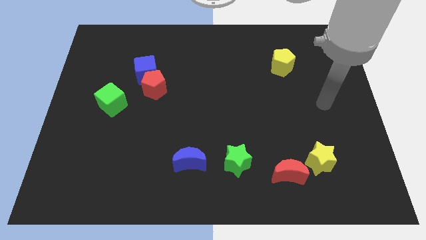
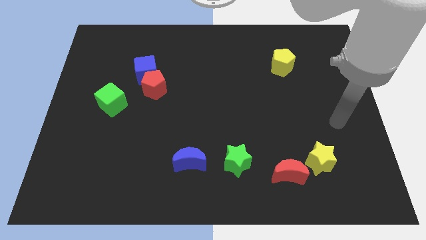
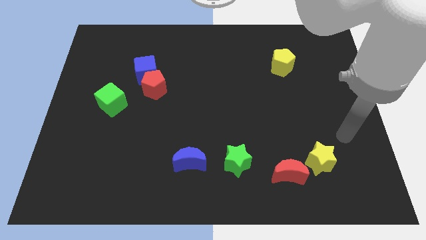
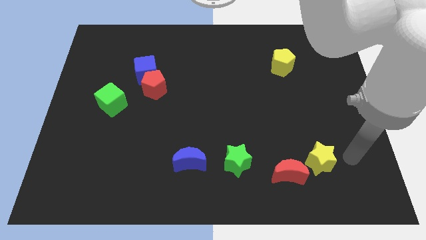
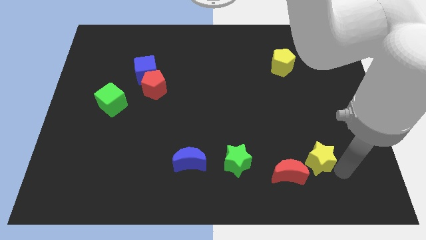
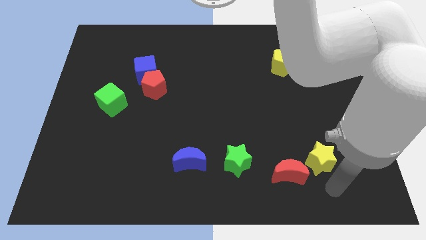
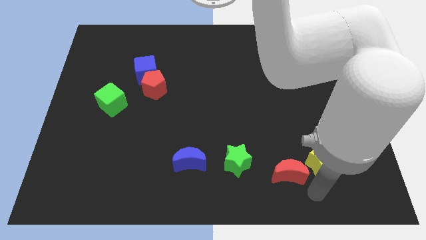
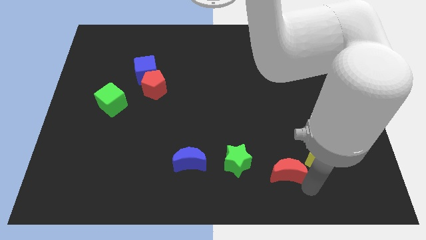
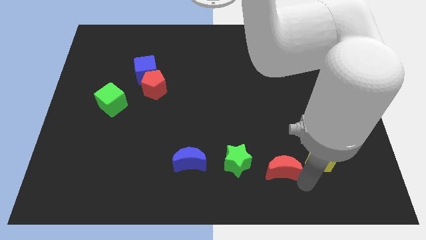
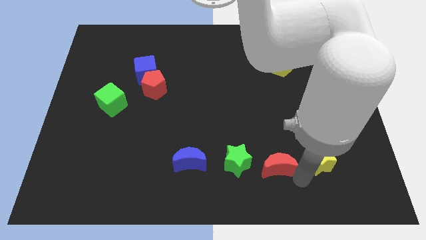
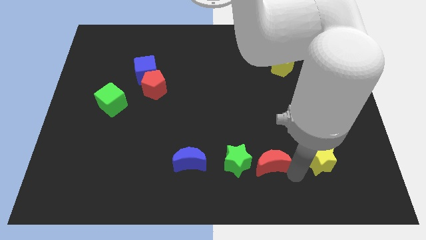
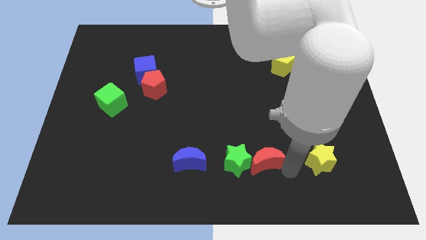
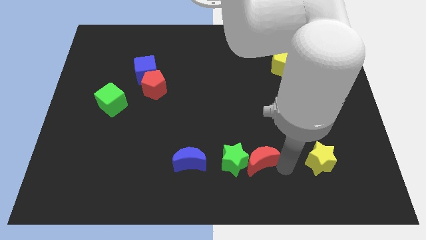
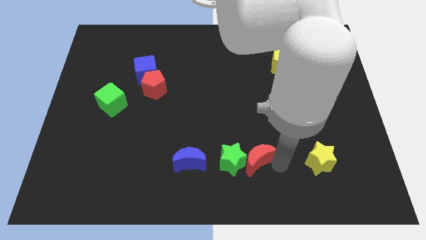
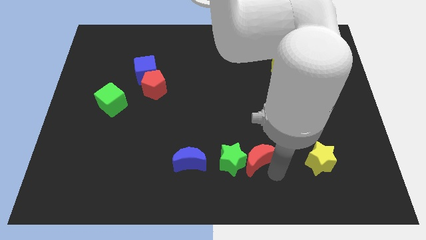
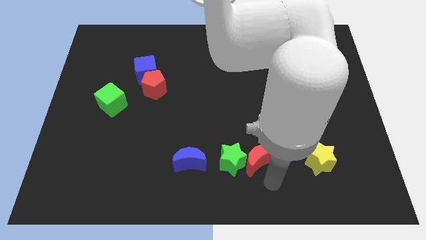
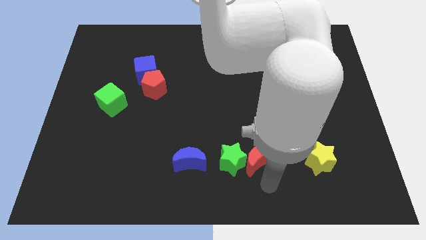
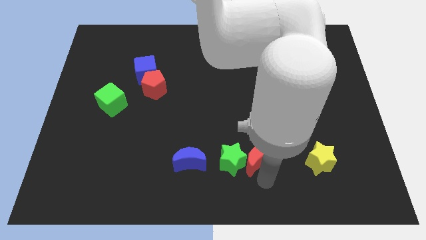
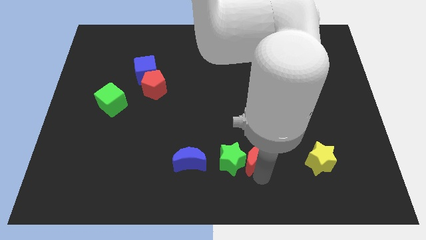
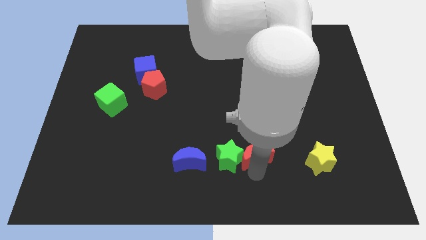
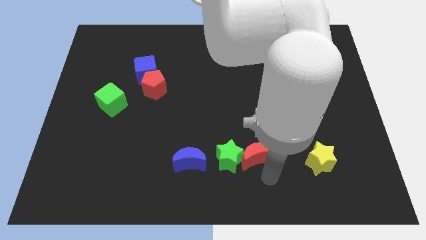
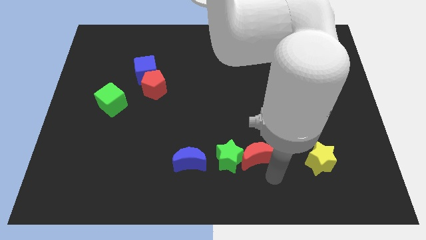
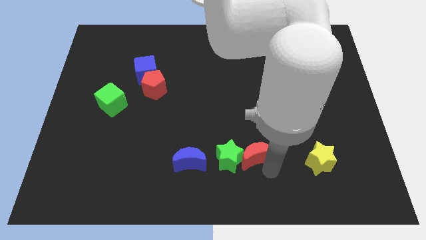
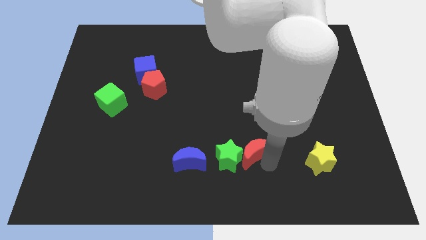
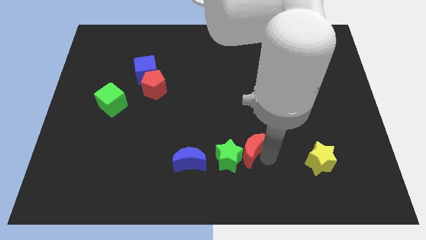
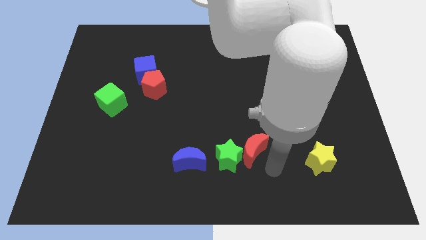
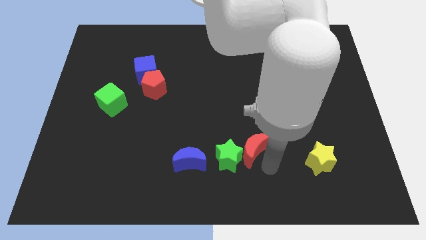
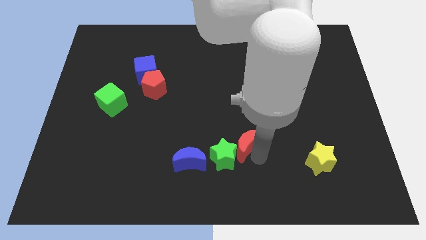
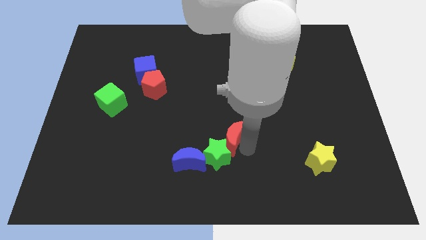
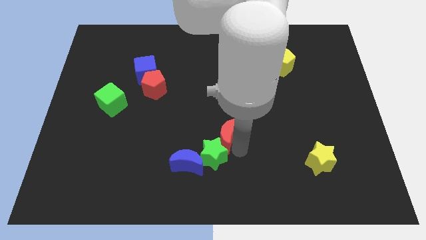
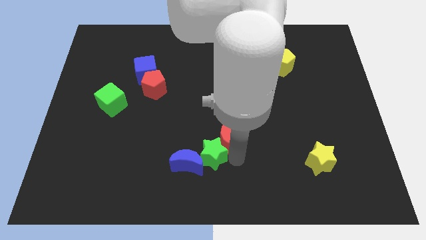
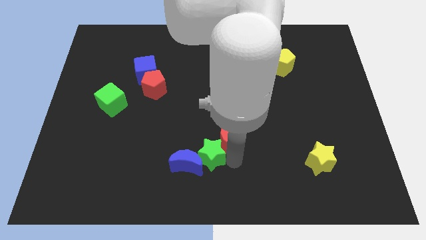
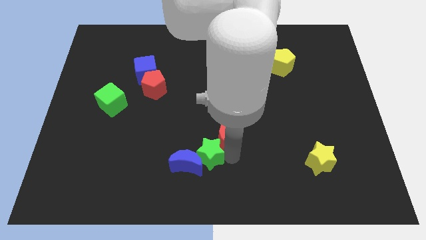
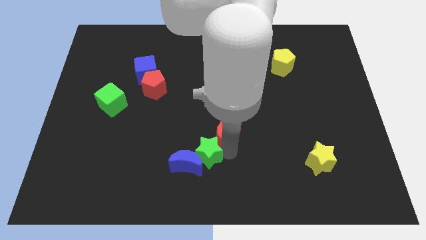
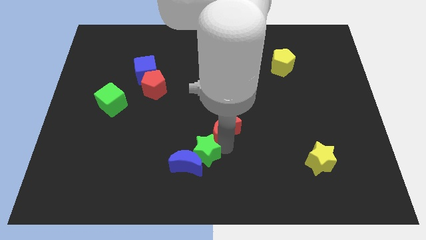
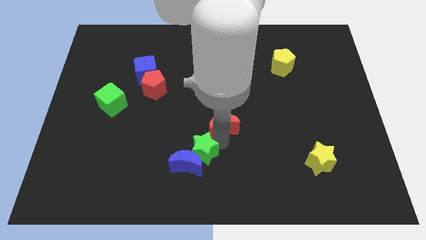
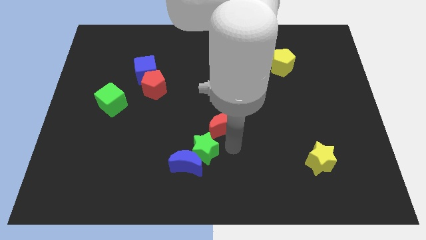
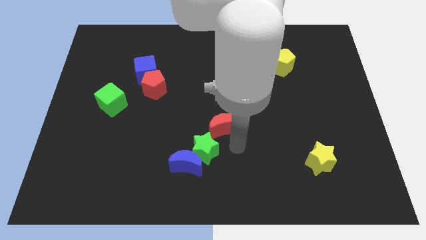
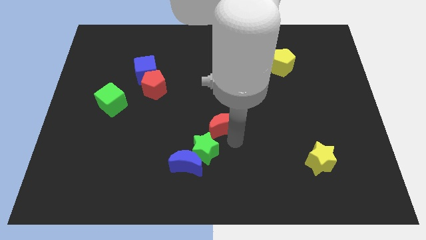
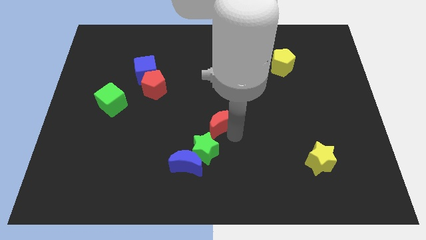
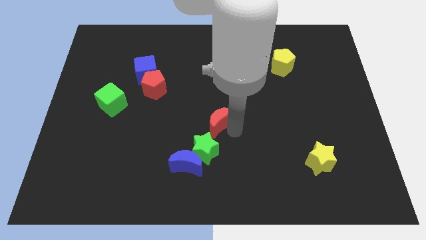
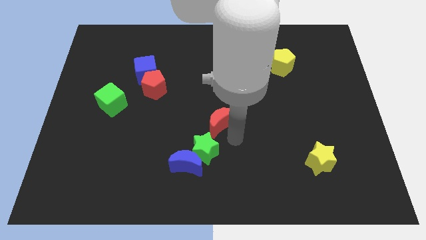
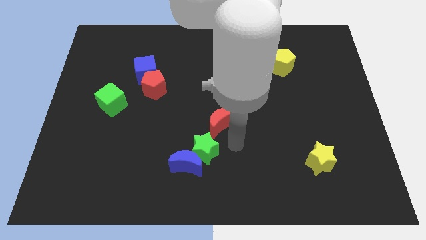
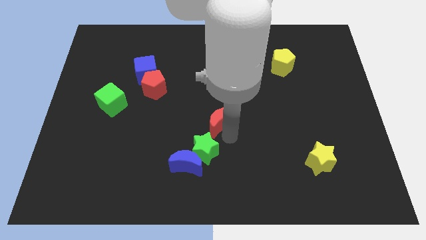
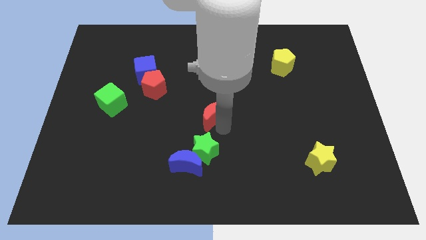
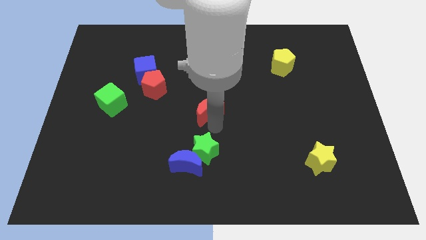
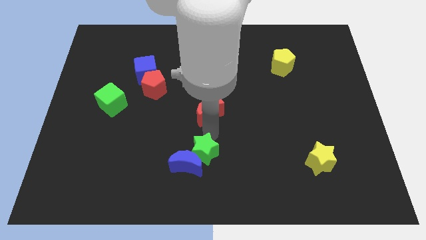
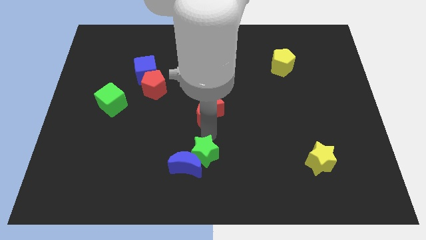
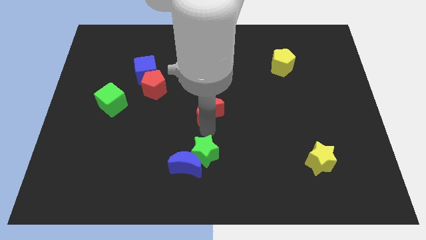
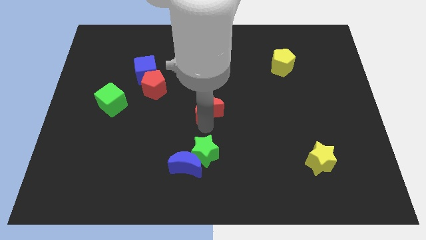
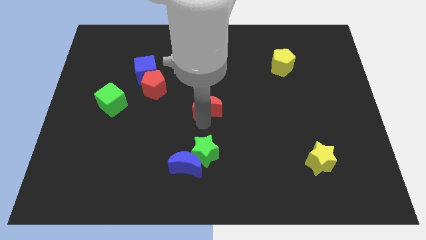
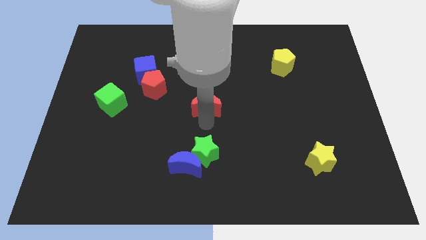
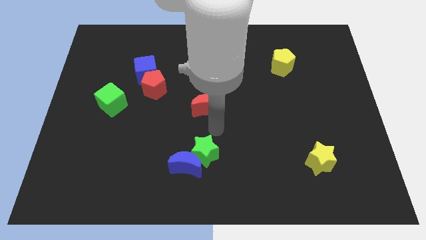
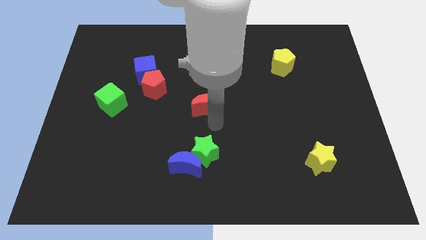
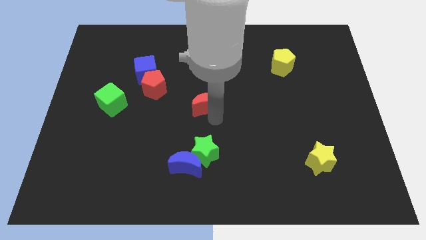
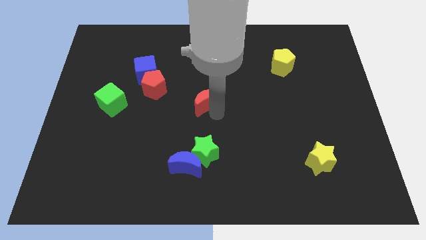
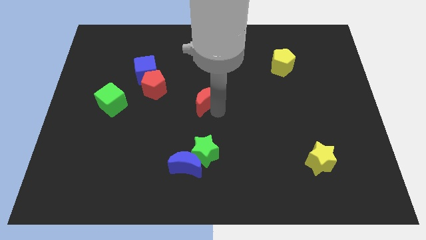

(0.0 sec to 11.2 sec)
move the red moon just right of the red pentagon

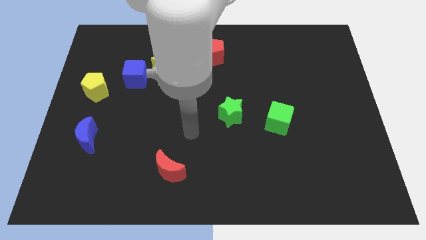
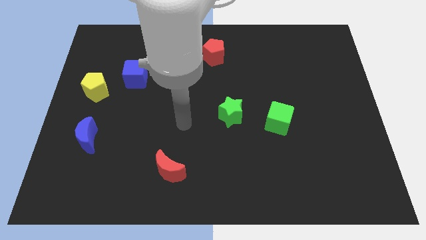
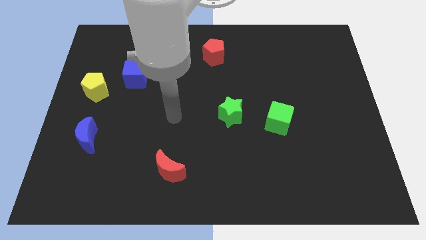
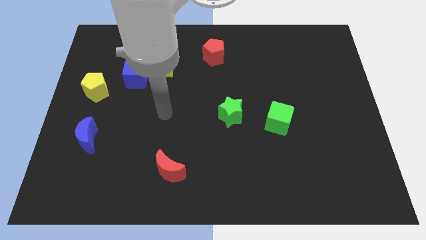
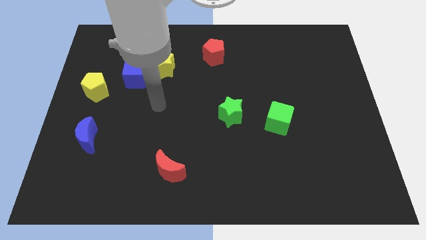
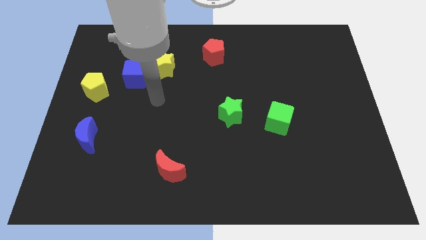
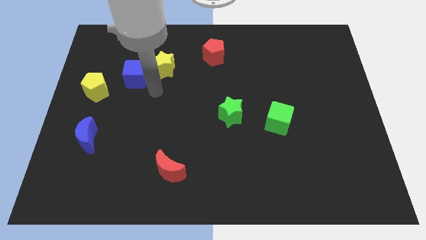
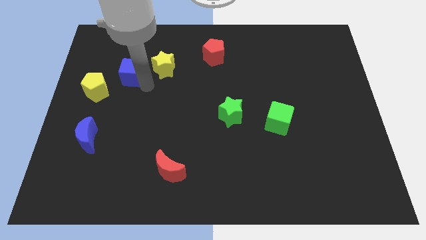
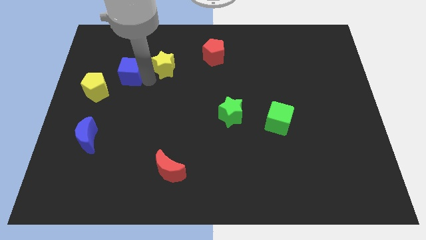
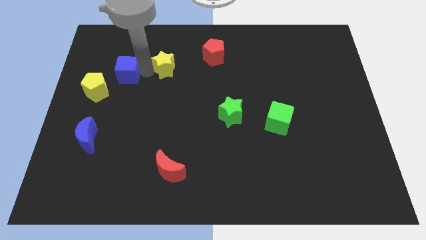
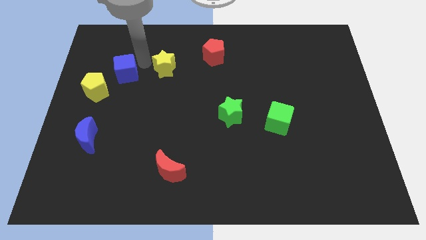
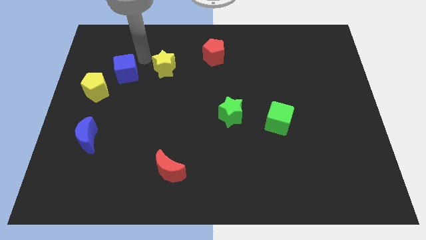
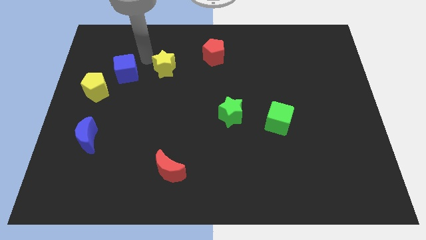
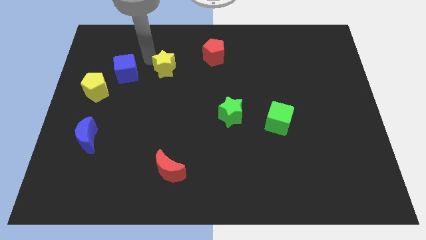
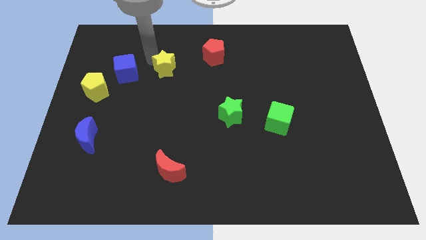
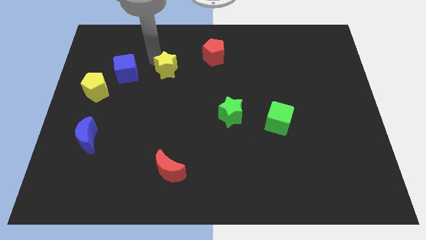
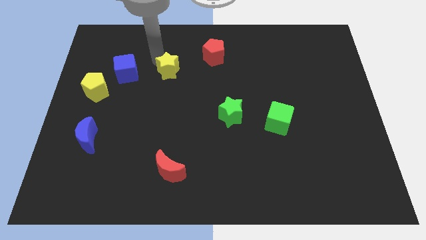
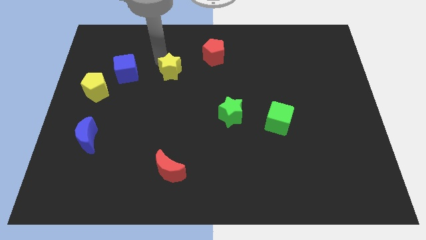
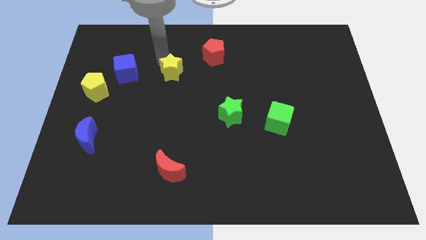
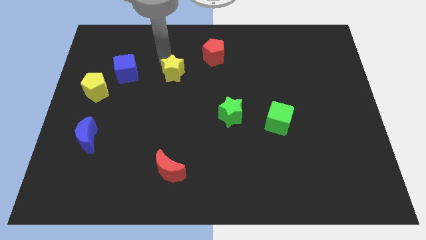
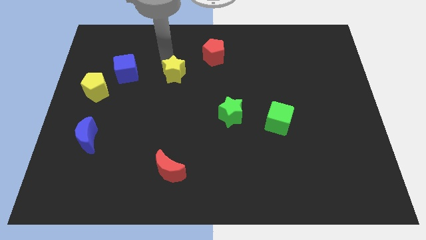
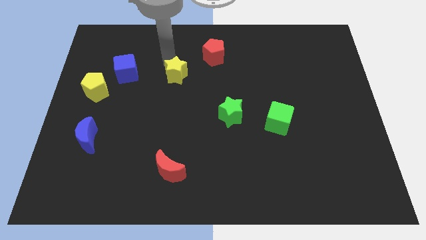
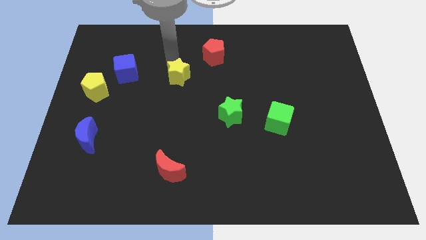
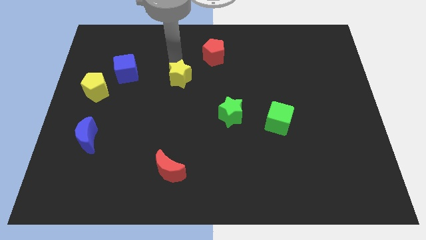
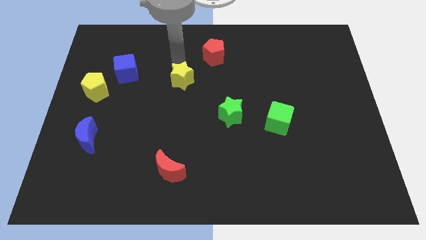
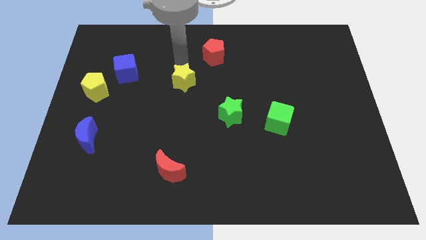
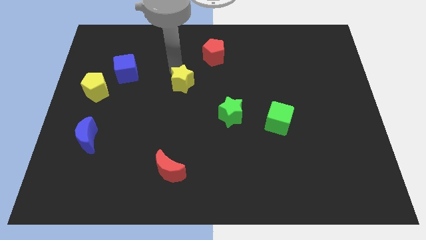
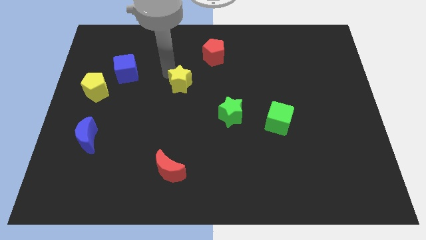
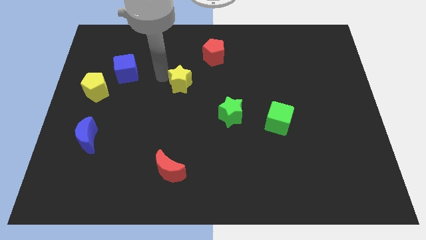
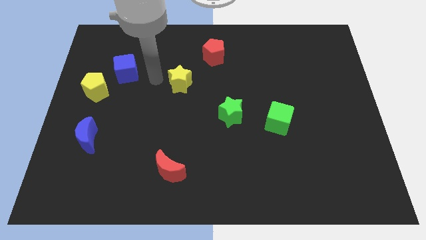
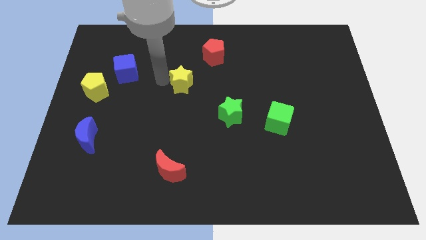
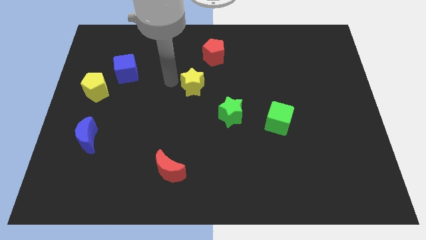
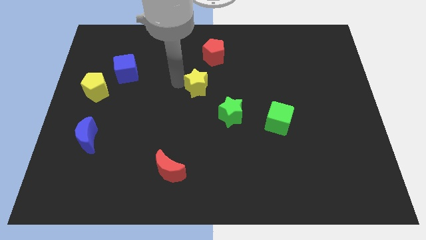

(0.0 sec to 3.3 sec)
put the yellow star below the red pentagon
